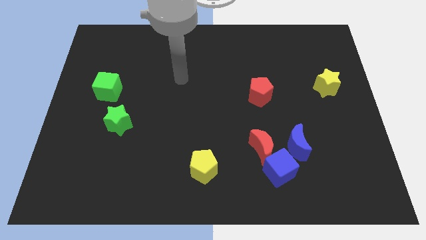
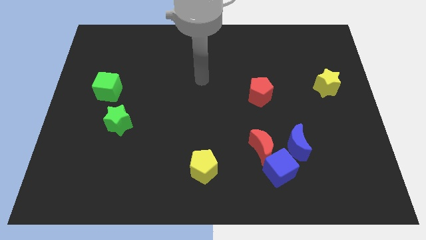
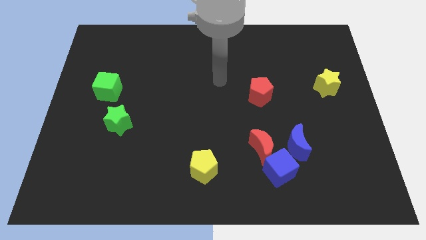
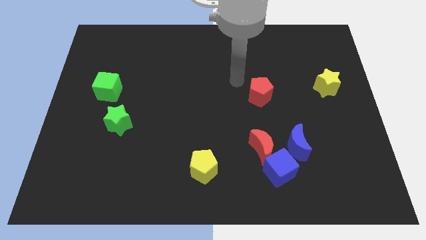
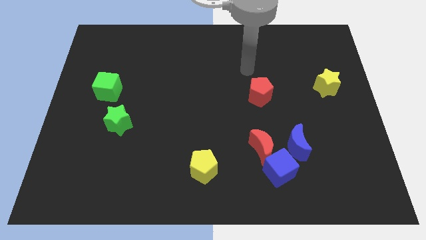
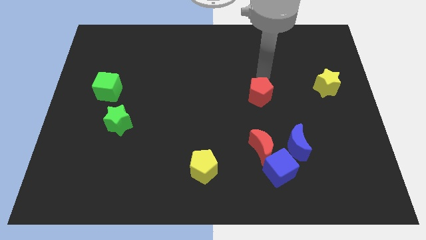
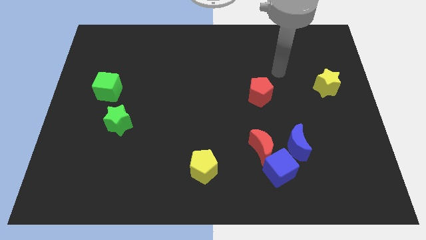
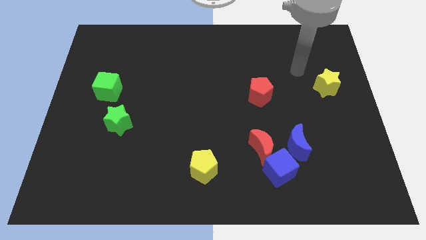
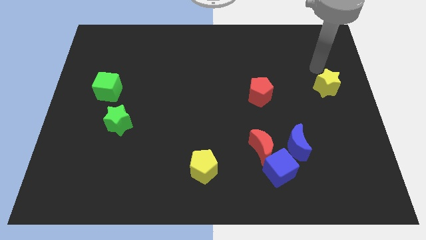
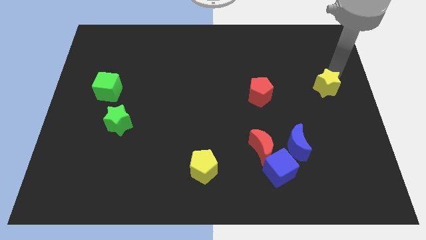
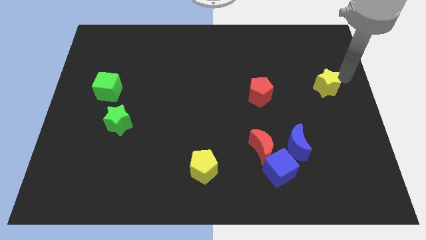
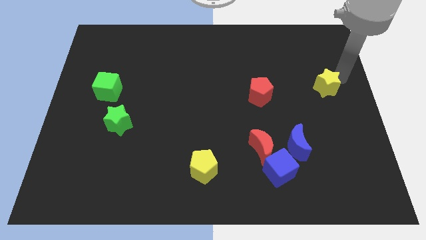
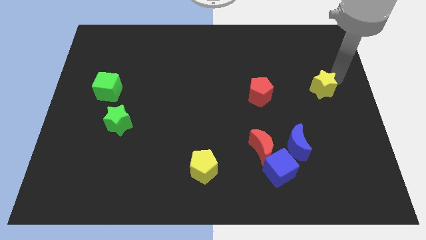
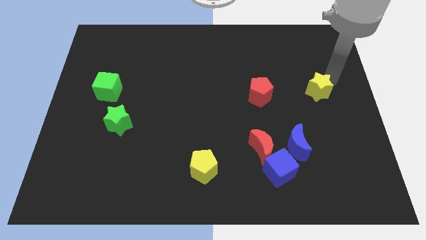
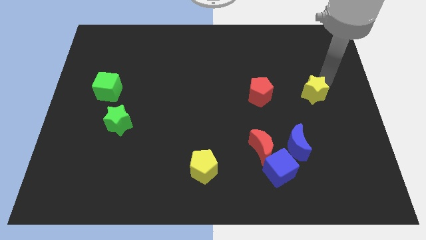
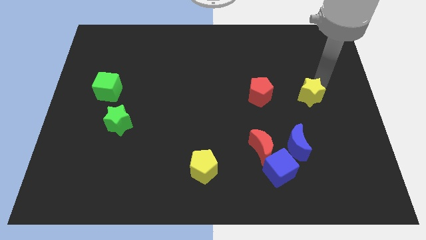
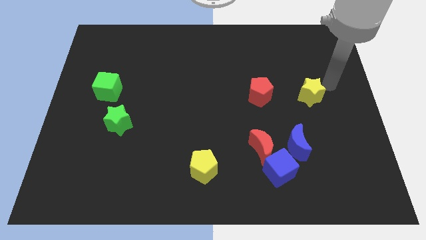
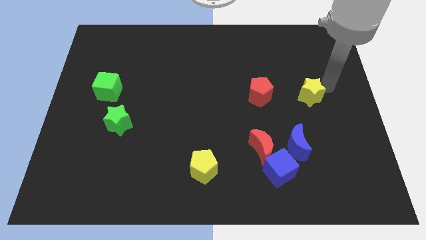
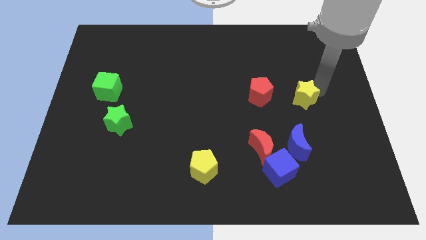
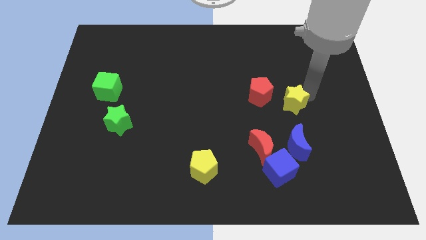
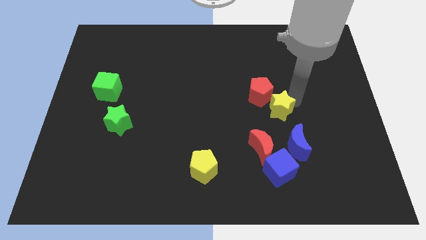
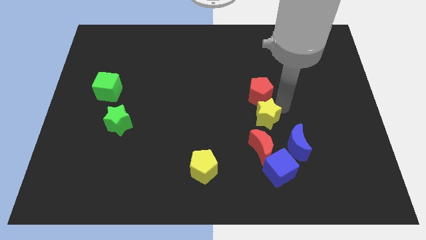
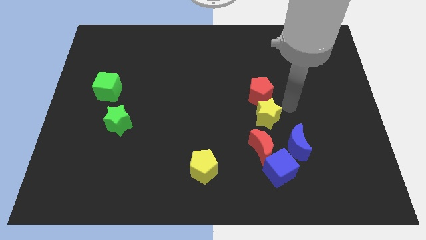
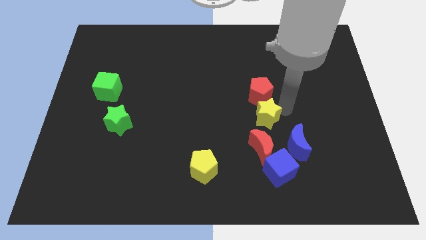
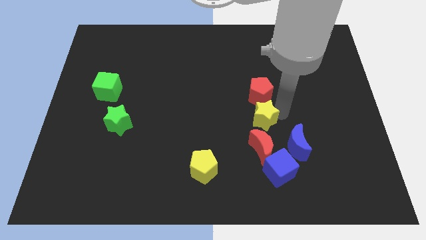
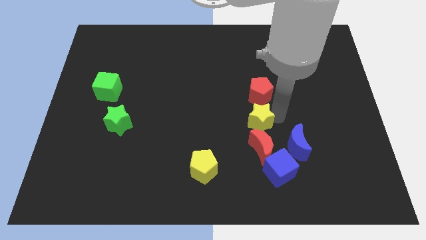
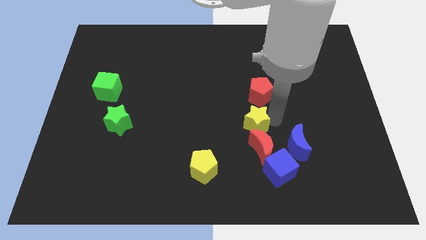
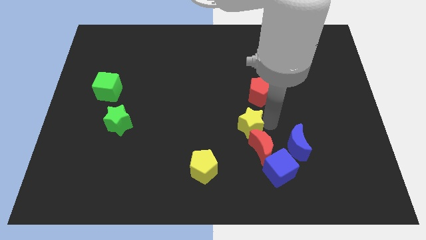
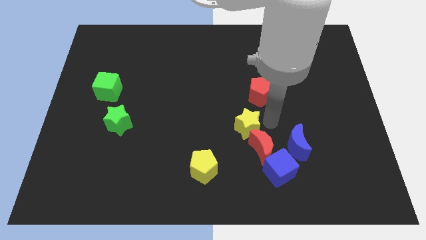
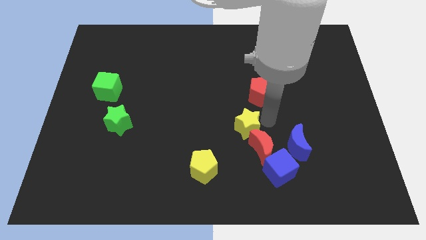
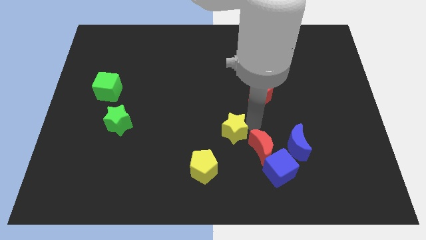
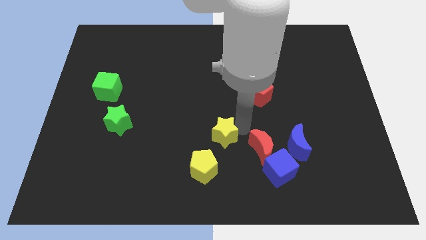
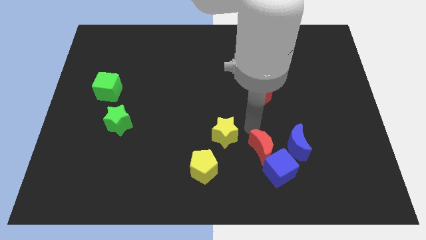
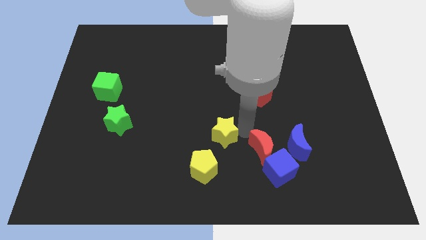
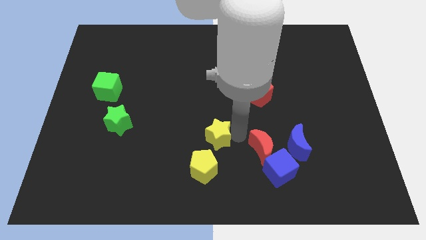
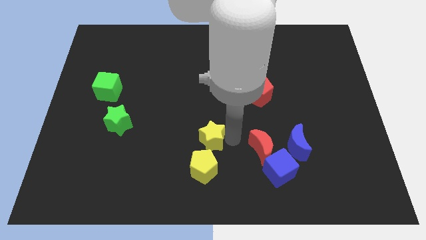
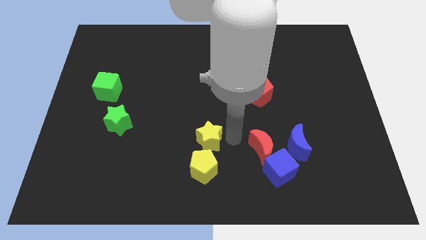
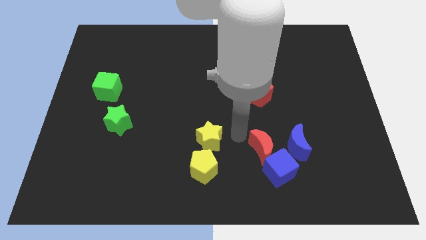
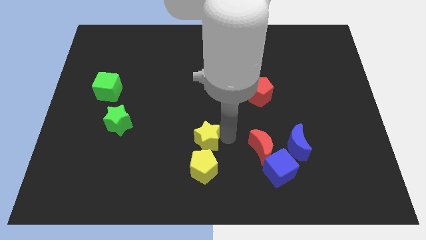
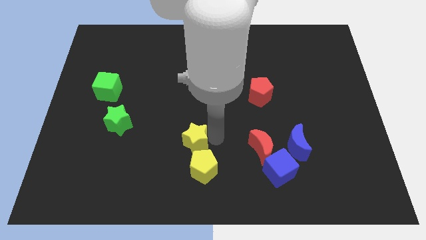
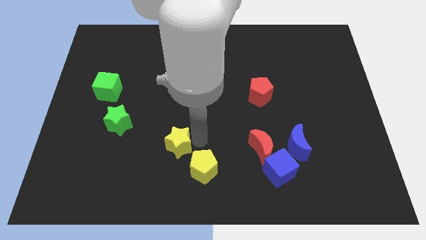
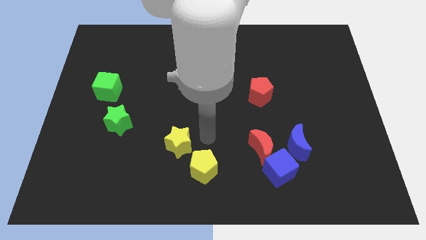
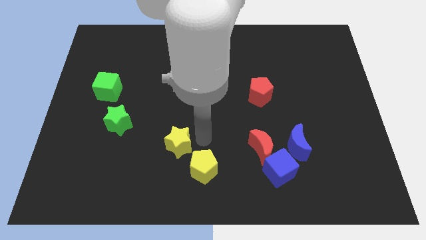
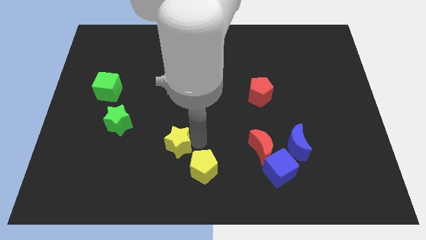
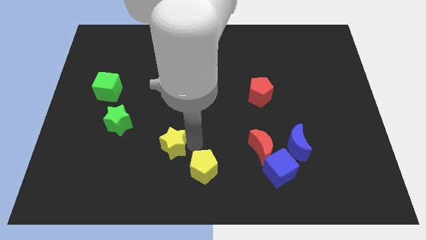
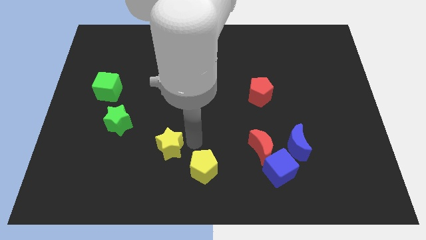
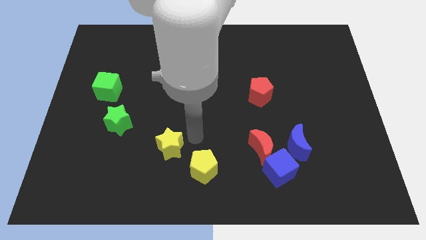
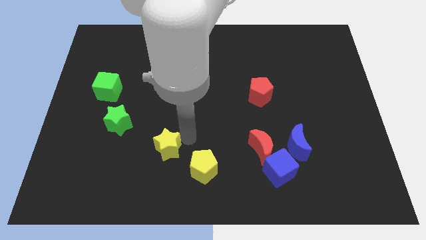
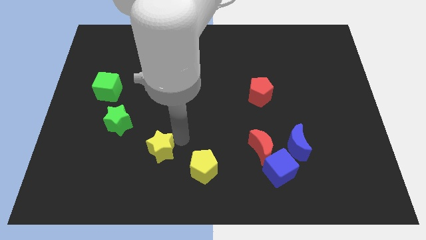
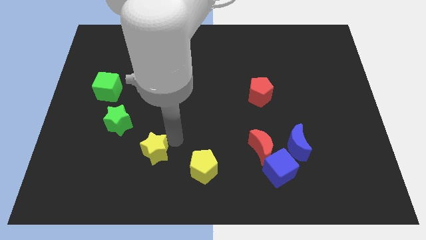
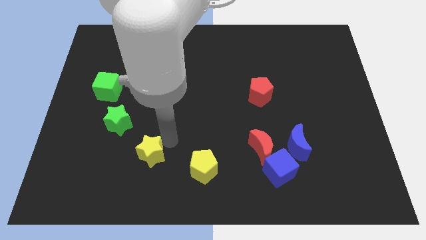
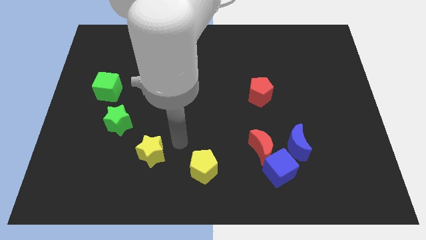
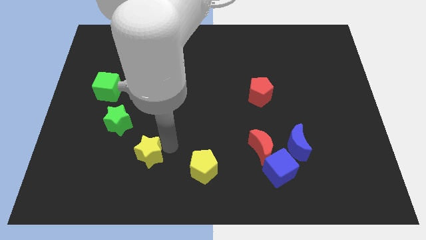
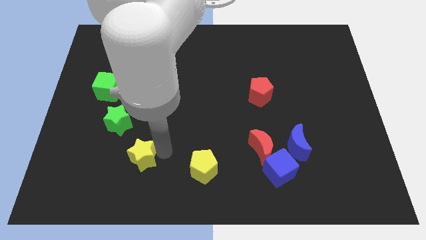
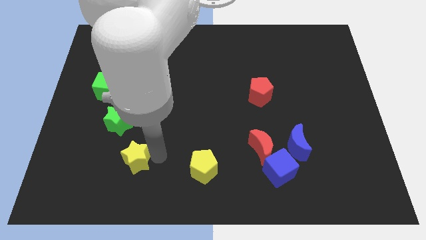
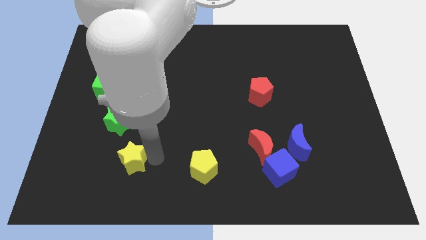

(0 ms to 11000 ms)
slide the yellow star below the green star

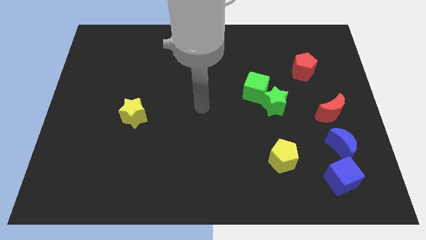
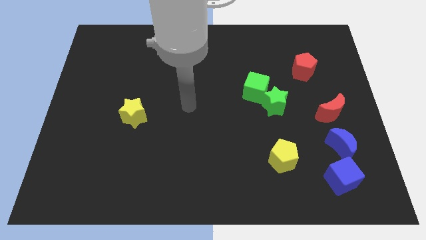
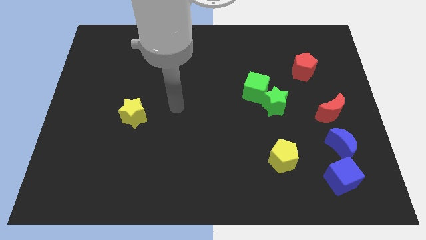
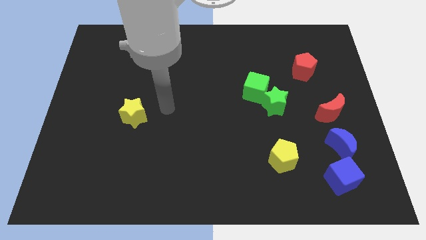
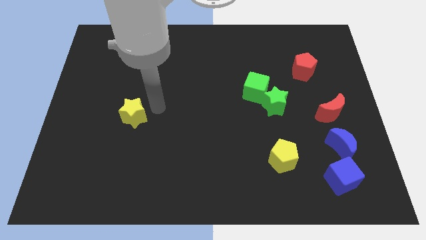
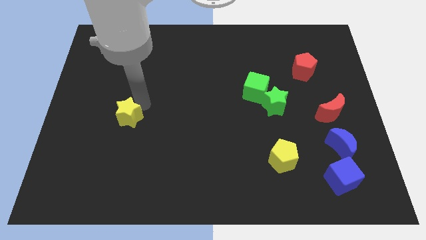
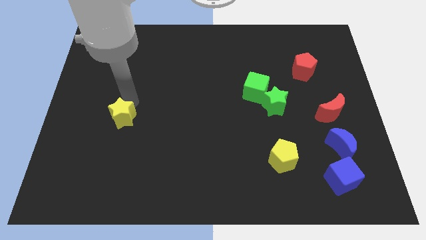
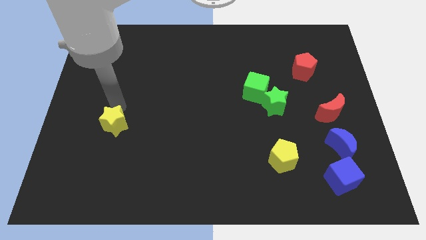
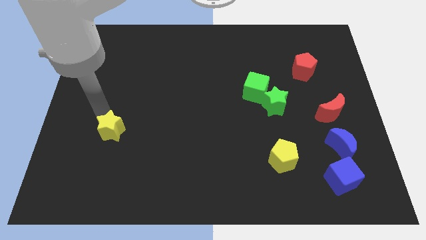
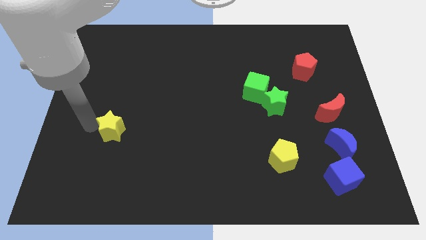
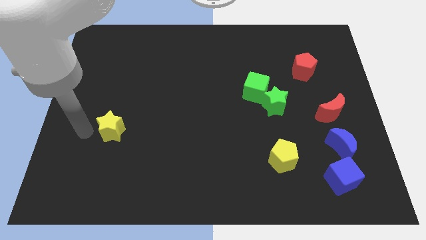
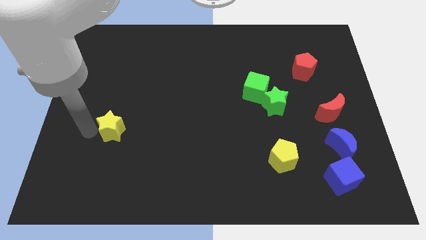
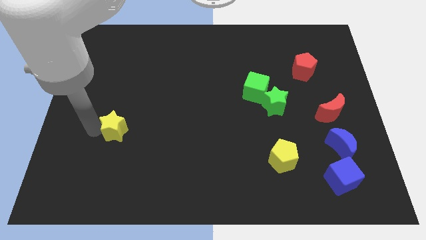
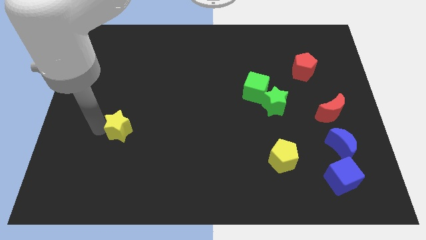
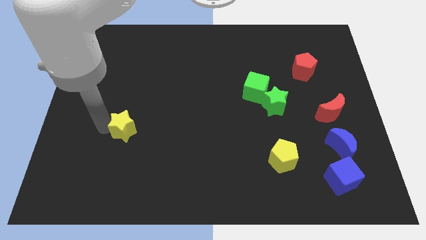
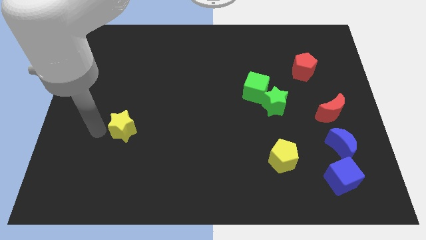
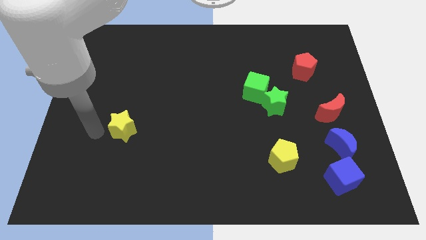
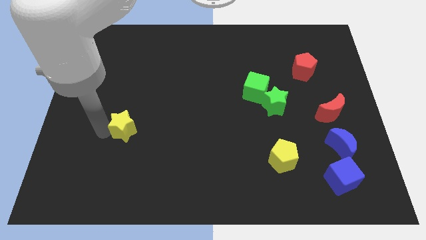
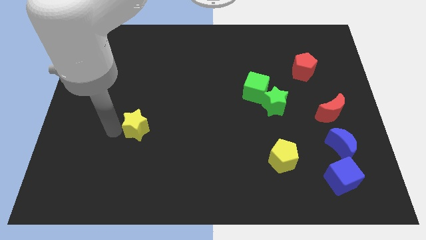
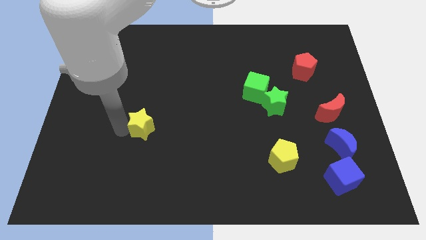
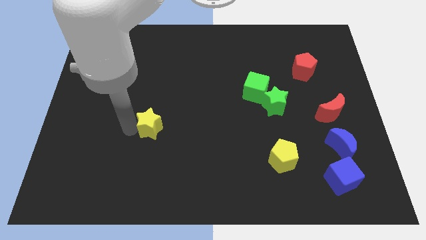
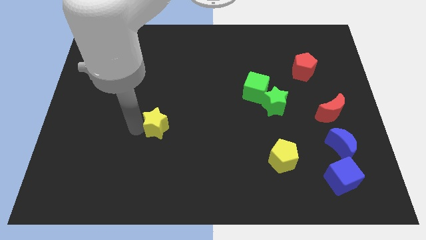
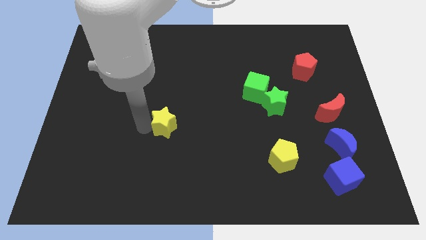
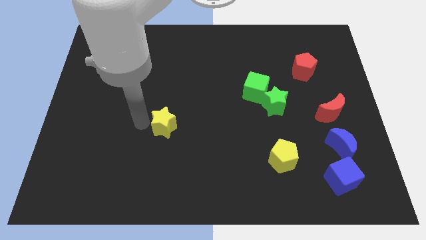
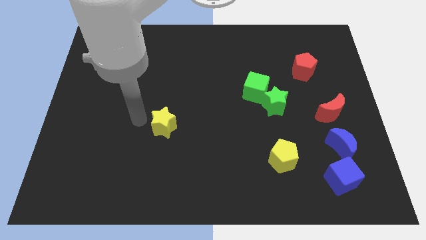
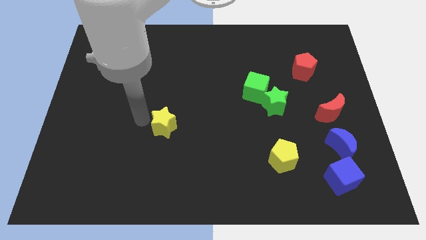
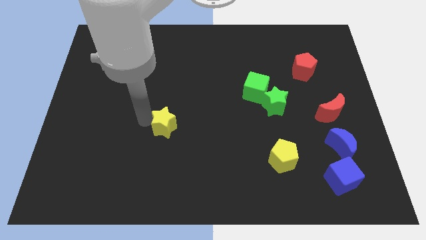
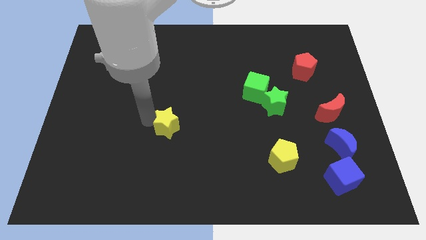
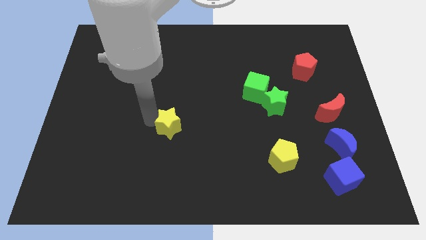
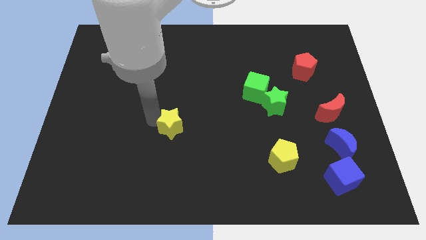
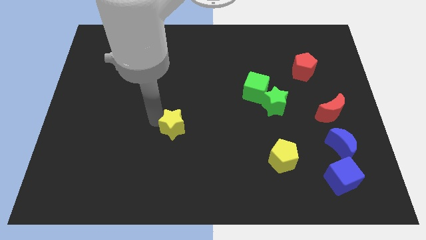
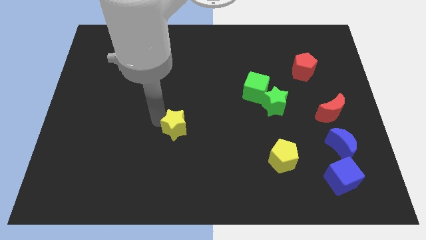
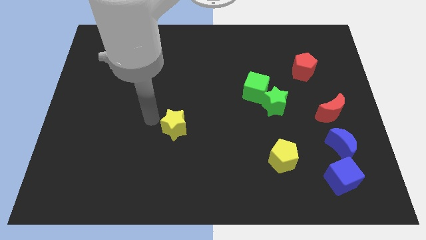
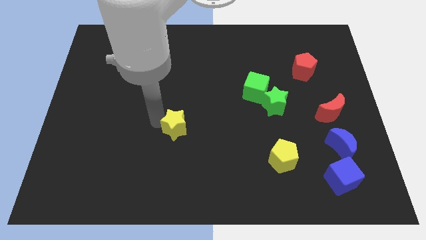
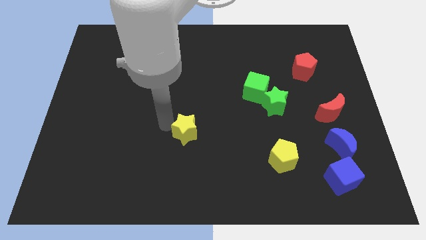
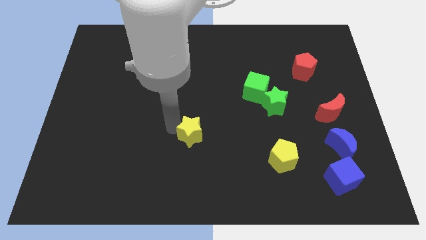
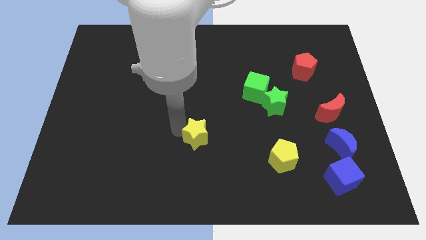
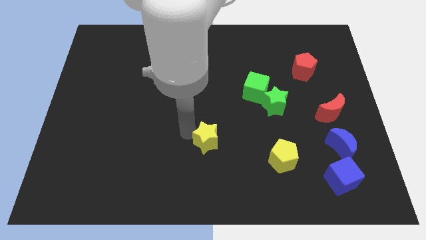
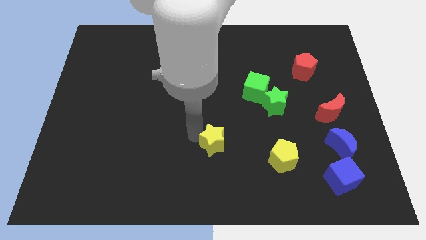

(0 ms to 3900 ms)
push the yellow star just left of the yellow pentagon
